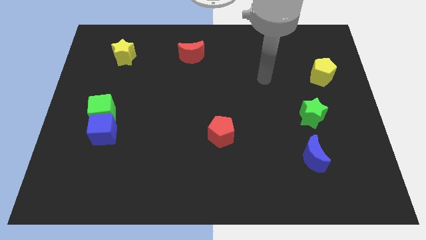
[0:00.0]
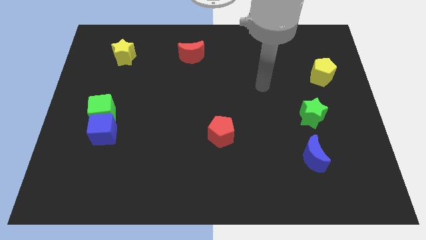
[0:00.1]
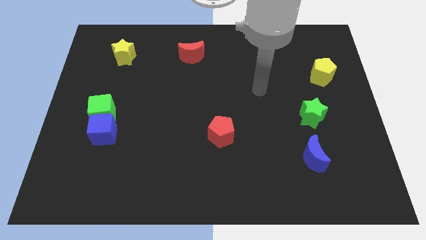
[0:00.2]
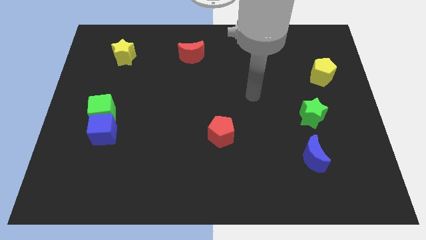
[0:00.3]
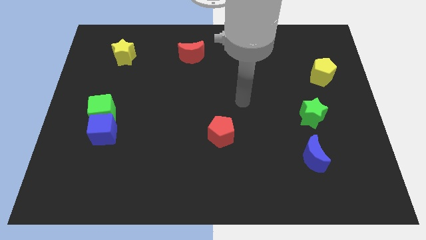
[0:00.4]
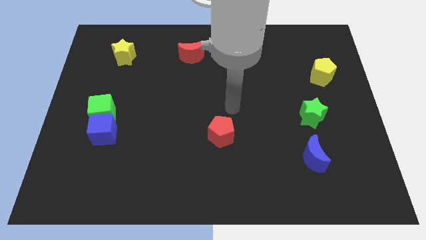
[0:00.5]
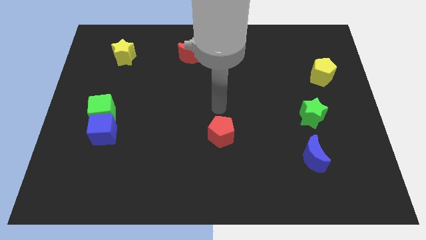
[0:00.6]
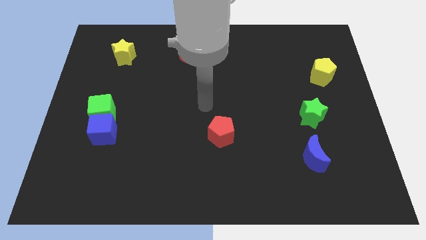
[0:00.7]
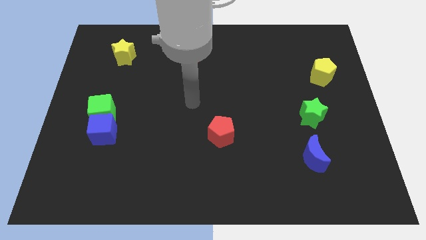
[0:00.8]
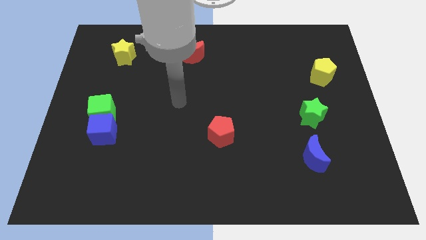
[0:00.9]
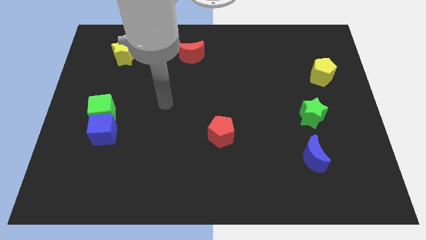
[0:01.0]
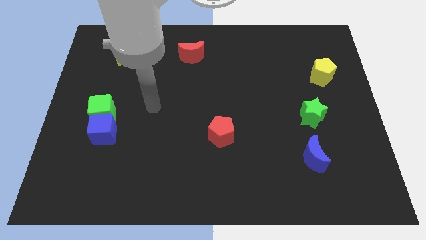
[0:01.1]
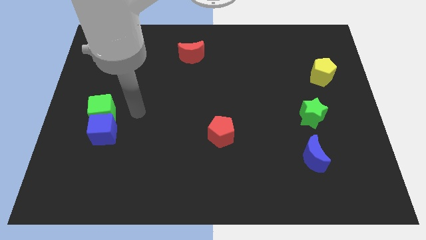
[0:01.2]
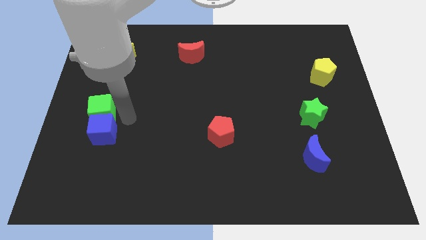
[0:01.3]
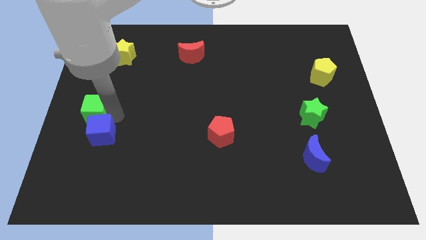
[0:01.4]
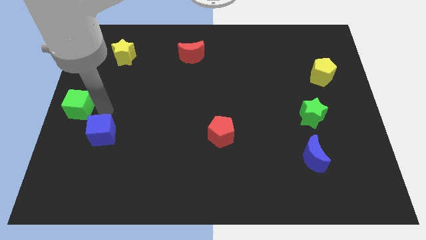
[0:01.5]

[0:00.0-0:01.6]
move the blue cube away from the green cube

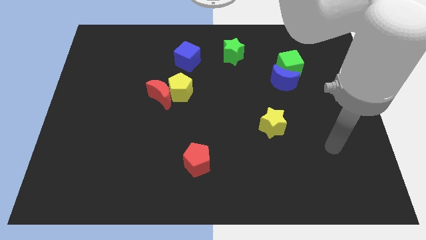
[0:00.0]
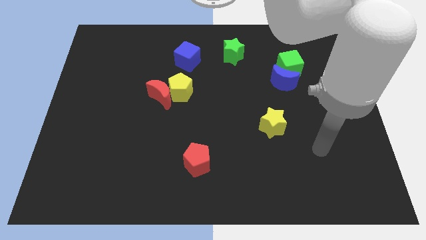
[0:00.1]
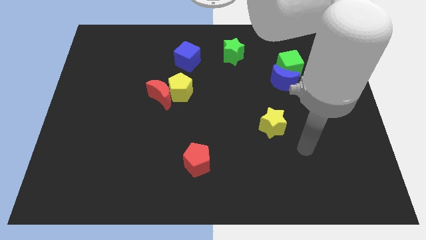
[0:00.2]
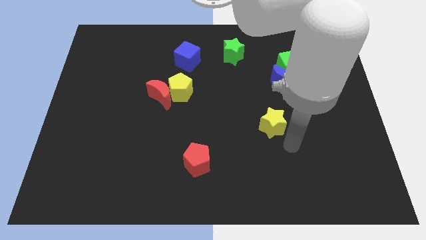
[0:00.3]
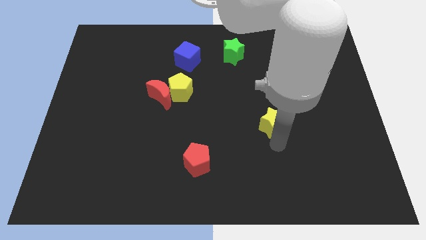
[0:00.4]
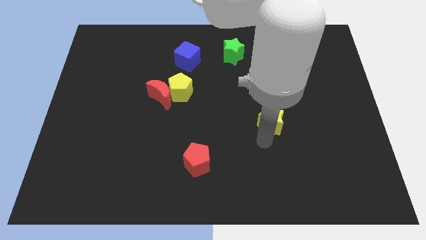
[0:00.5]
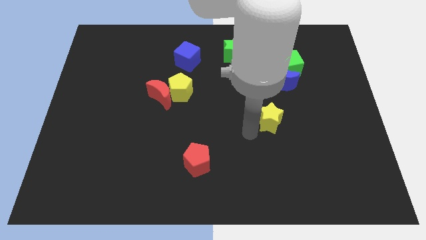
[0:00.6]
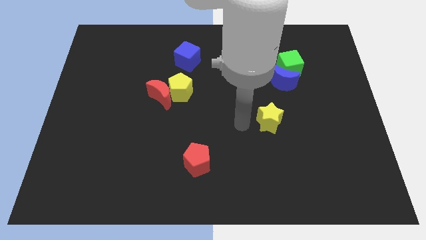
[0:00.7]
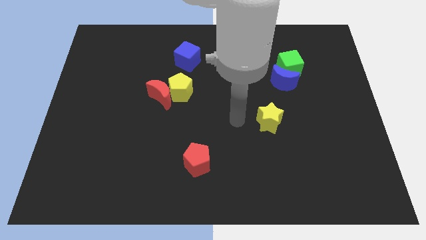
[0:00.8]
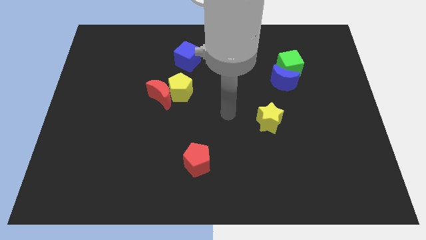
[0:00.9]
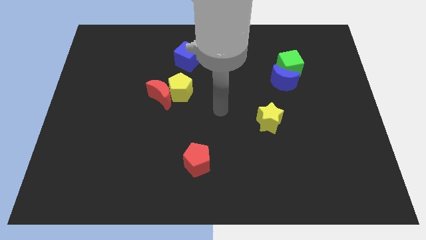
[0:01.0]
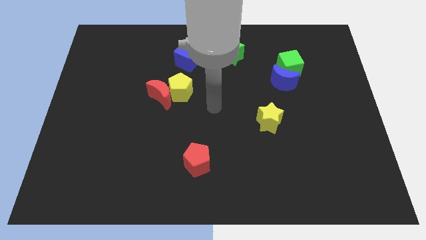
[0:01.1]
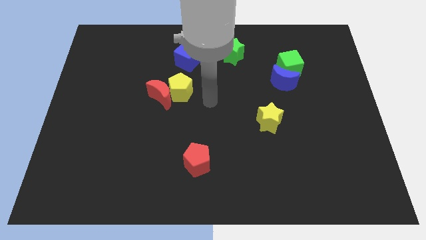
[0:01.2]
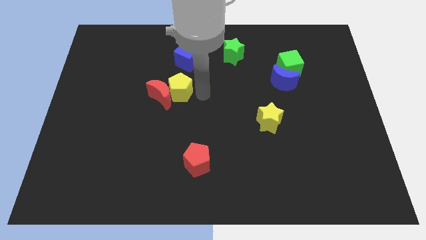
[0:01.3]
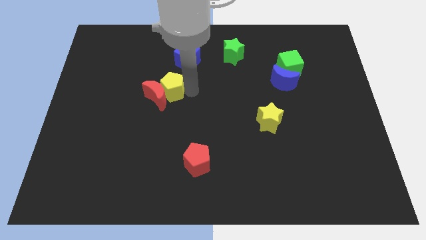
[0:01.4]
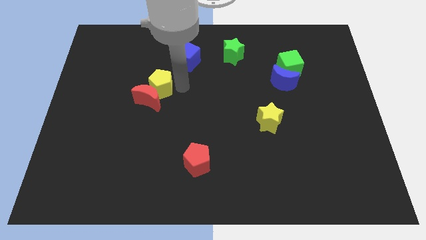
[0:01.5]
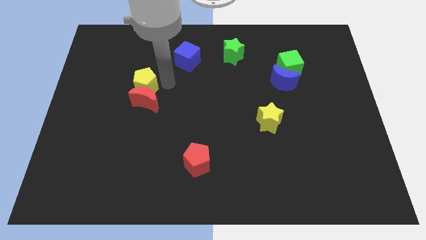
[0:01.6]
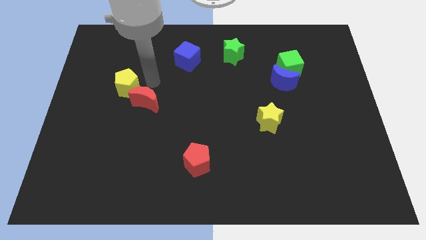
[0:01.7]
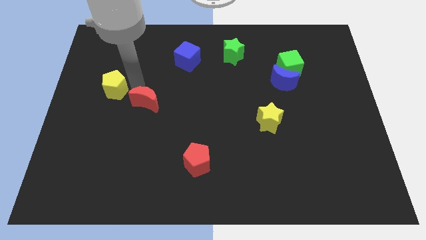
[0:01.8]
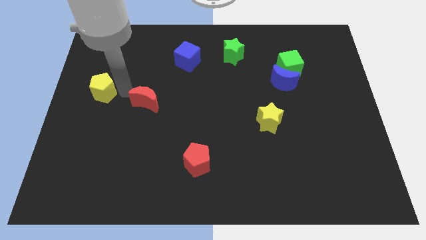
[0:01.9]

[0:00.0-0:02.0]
separate the red moon from the yellow pentagon

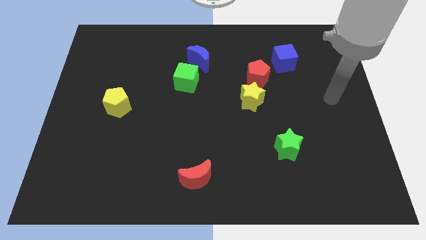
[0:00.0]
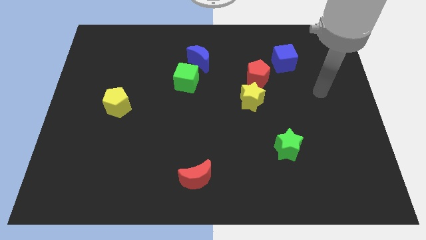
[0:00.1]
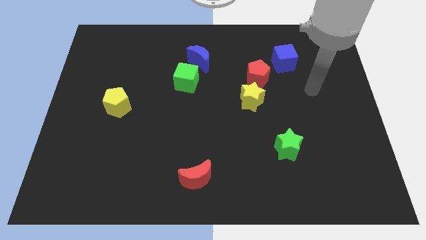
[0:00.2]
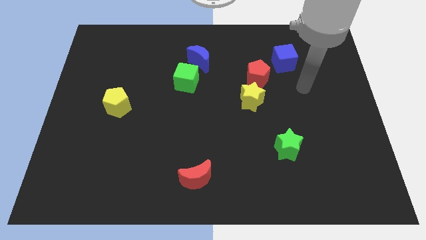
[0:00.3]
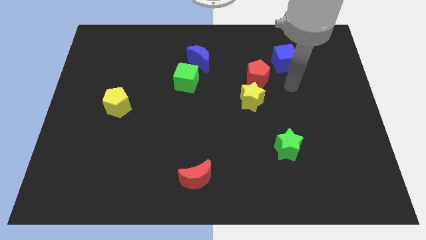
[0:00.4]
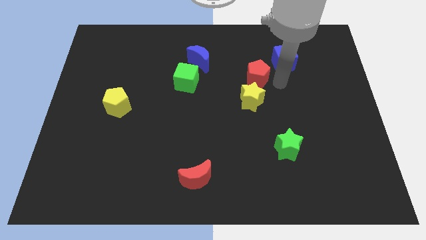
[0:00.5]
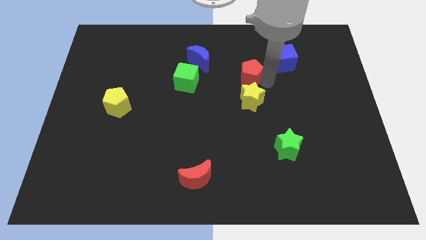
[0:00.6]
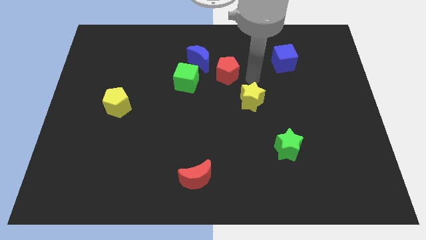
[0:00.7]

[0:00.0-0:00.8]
separate the yellow star from the red pentagon

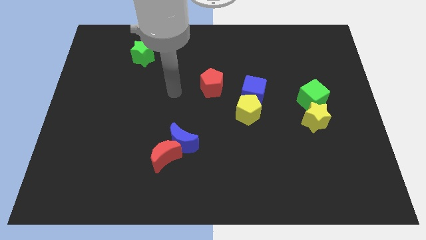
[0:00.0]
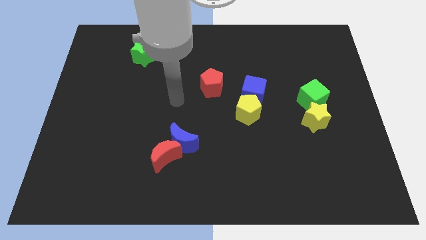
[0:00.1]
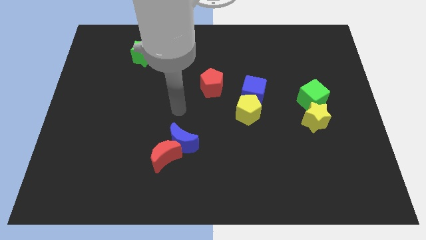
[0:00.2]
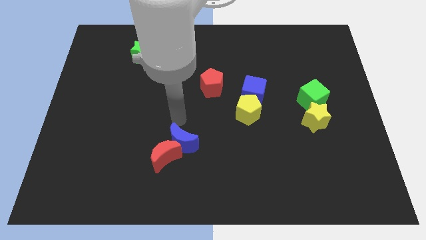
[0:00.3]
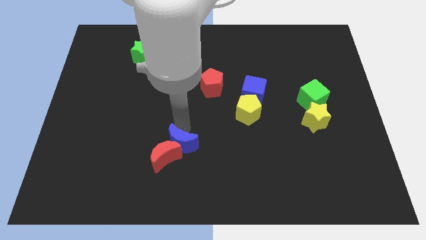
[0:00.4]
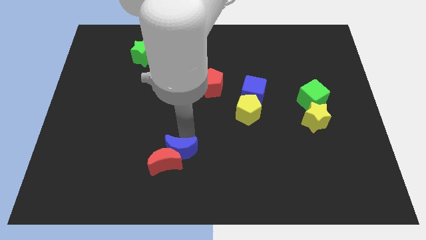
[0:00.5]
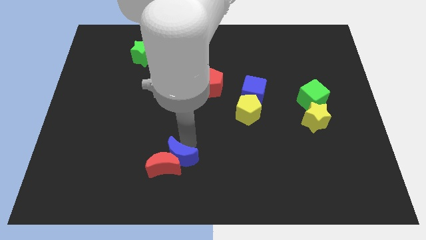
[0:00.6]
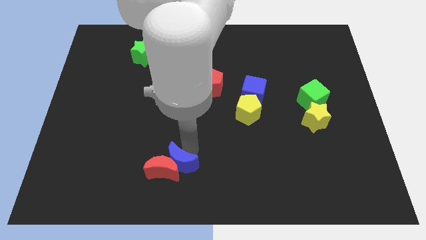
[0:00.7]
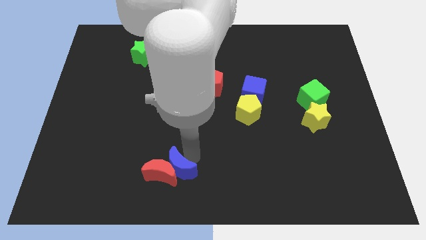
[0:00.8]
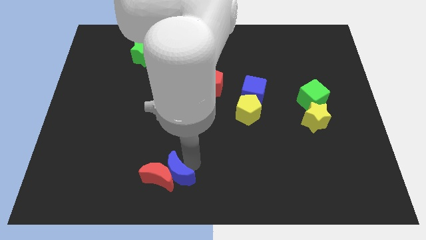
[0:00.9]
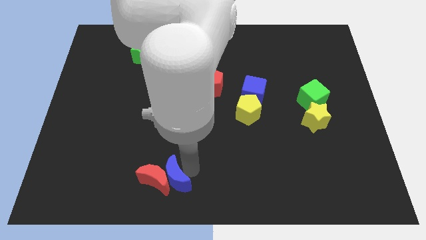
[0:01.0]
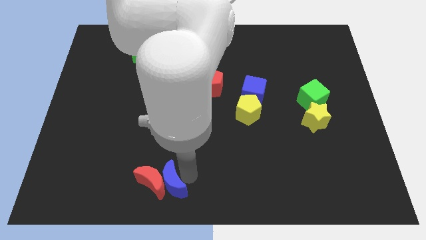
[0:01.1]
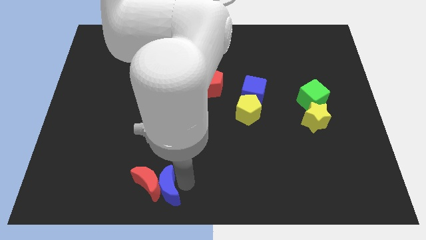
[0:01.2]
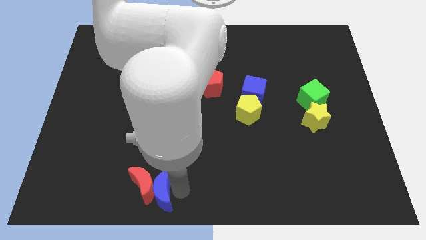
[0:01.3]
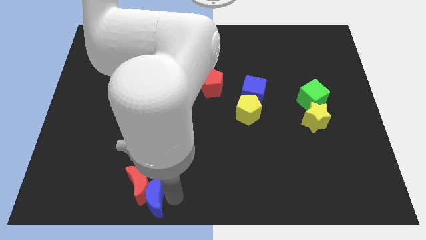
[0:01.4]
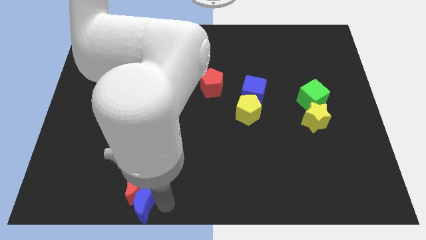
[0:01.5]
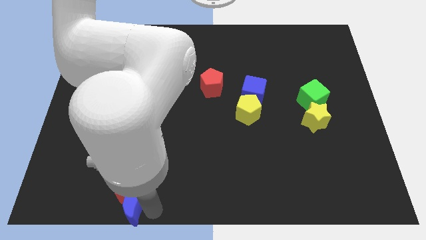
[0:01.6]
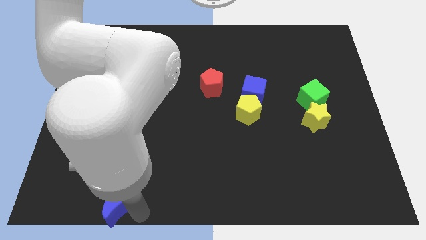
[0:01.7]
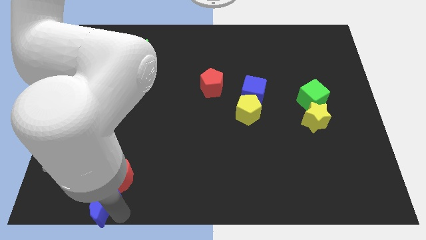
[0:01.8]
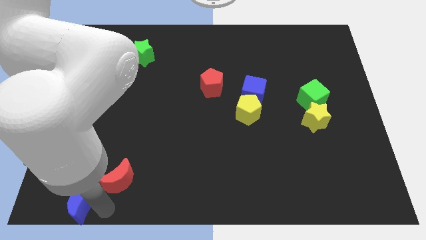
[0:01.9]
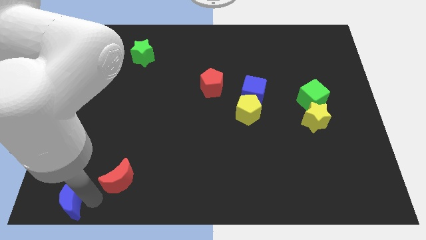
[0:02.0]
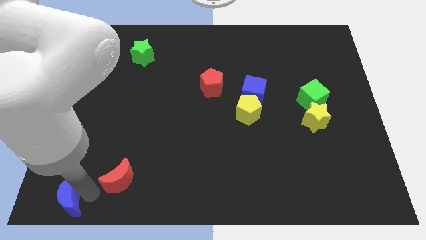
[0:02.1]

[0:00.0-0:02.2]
pull the red moon apart from the blue moon

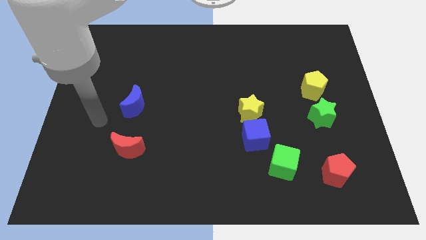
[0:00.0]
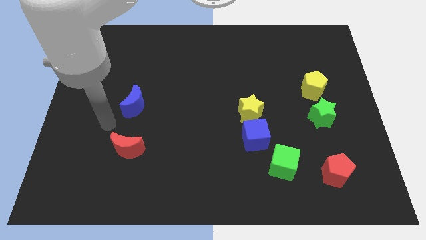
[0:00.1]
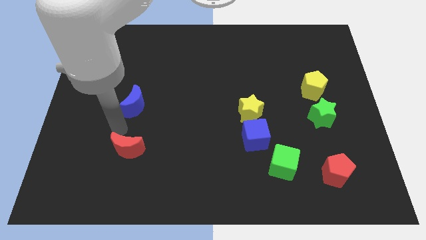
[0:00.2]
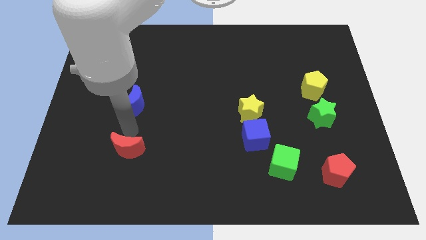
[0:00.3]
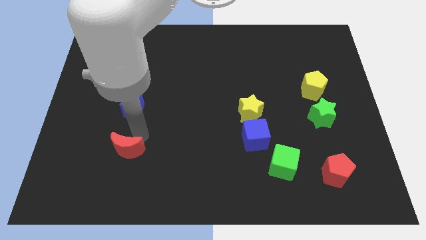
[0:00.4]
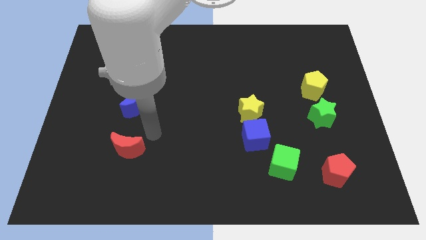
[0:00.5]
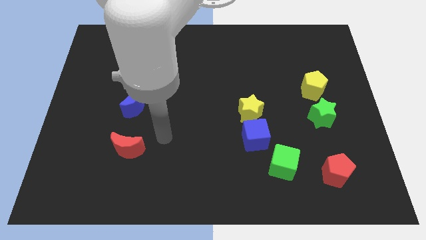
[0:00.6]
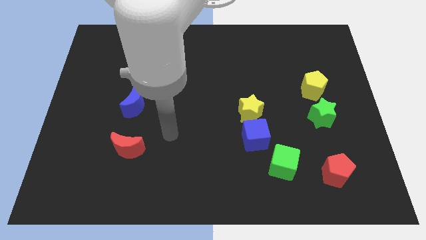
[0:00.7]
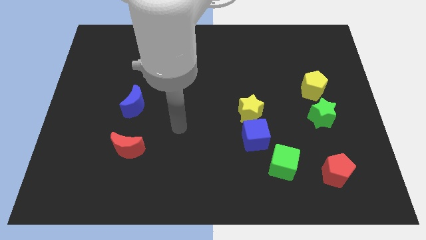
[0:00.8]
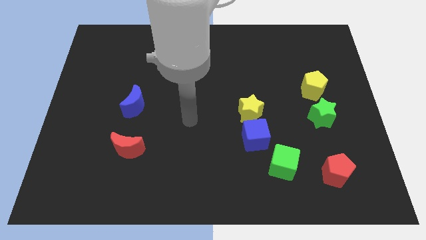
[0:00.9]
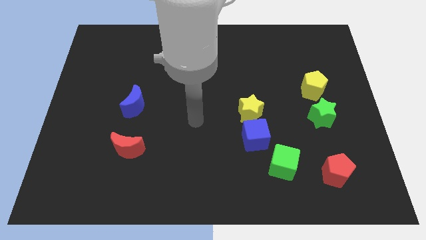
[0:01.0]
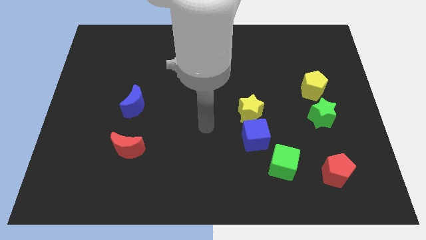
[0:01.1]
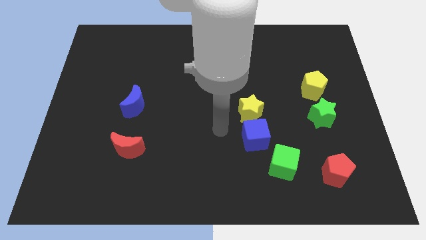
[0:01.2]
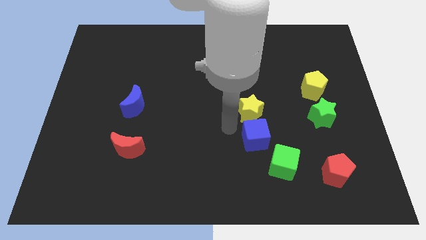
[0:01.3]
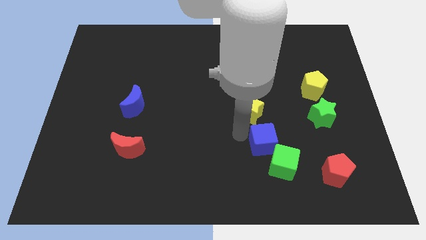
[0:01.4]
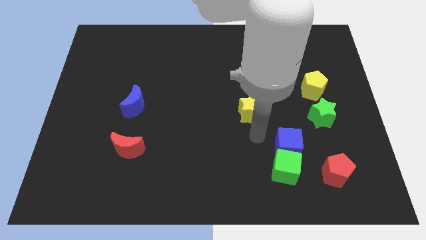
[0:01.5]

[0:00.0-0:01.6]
pull the yellow star apart from the blue cube

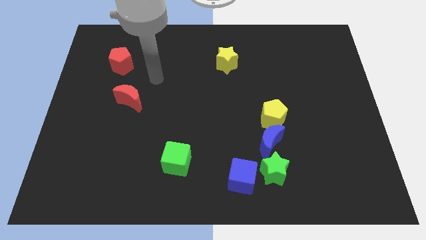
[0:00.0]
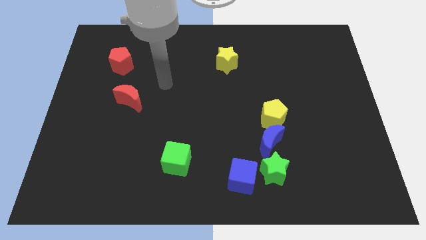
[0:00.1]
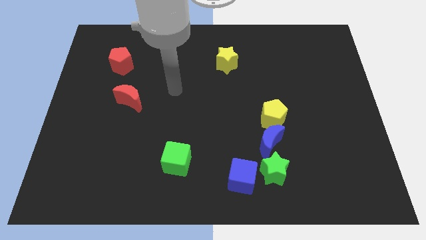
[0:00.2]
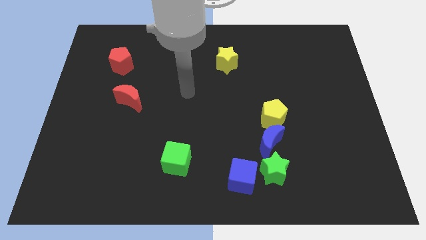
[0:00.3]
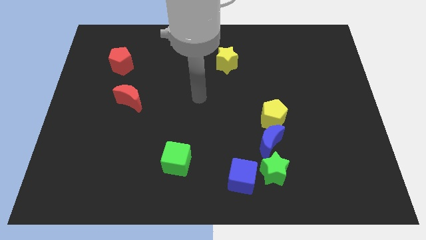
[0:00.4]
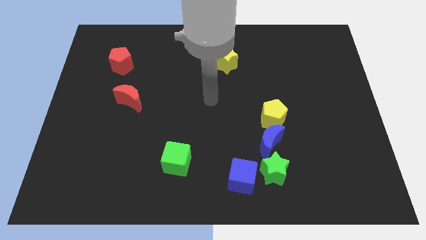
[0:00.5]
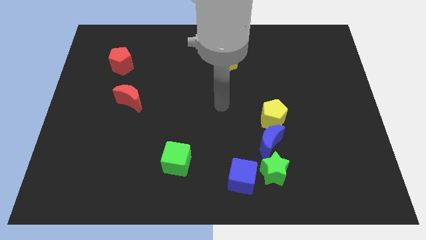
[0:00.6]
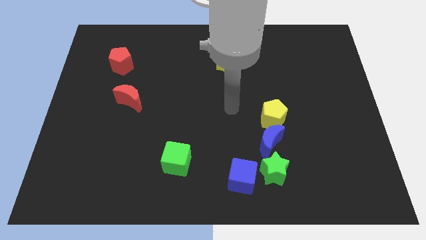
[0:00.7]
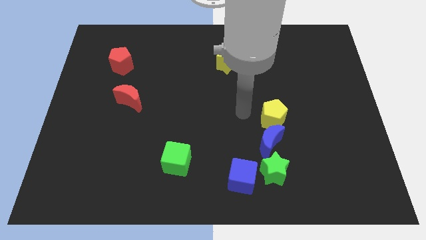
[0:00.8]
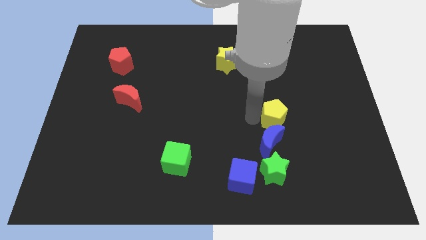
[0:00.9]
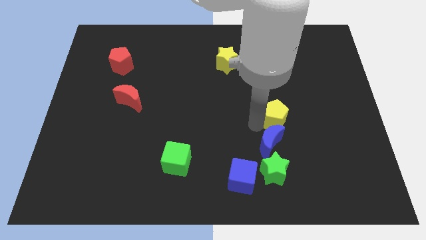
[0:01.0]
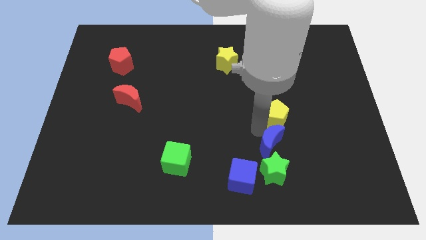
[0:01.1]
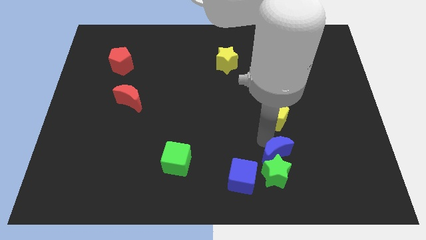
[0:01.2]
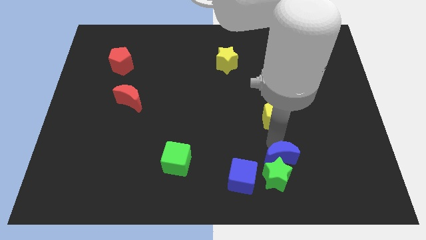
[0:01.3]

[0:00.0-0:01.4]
separate the yellow pentagon from the blue moon
